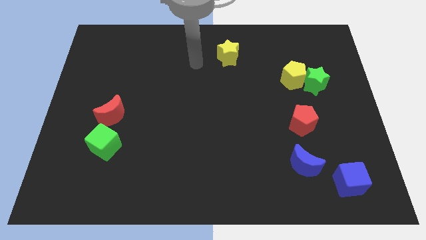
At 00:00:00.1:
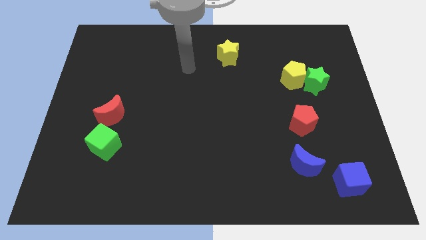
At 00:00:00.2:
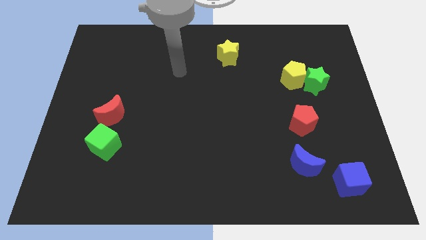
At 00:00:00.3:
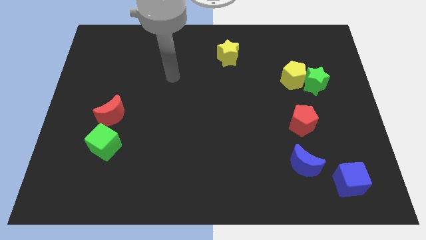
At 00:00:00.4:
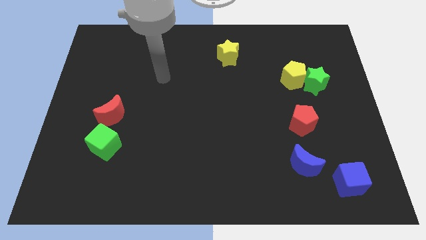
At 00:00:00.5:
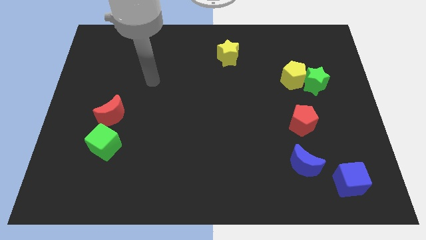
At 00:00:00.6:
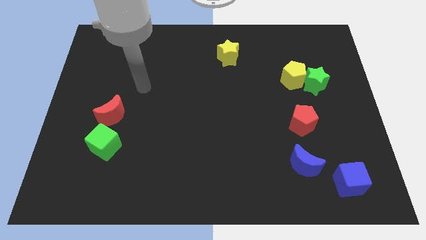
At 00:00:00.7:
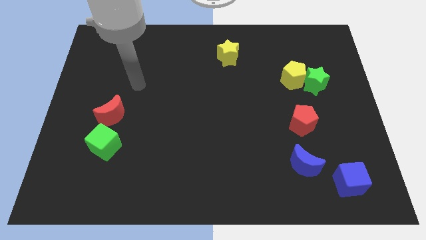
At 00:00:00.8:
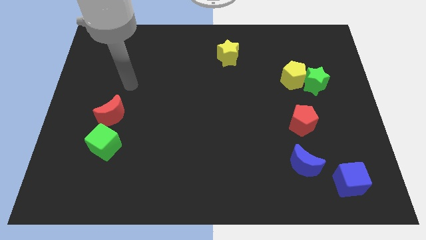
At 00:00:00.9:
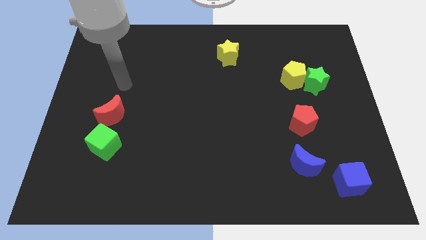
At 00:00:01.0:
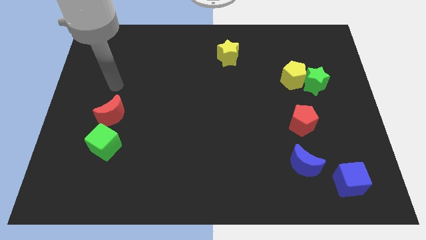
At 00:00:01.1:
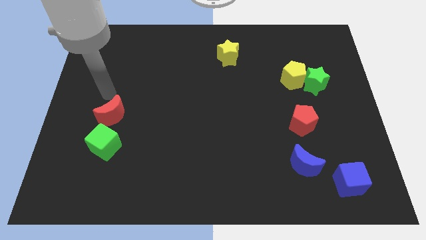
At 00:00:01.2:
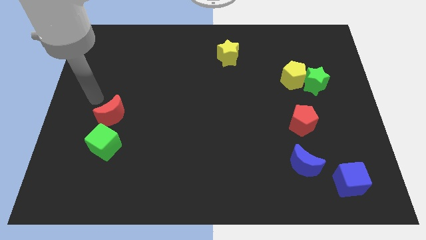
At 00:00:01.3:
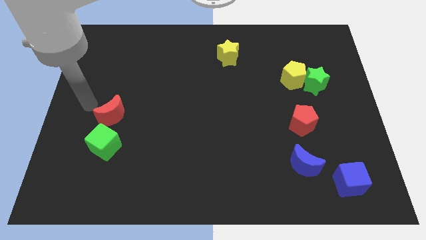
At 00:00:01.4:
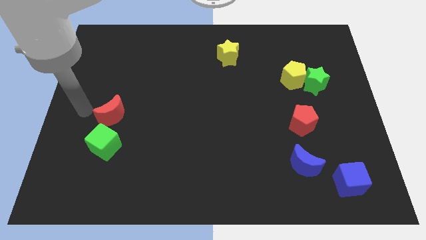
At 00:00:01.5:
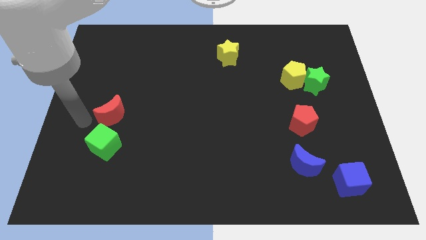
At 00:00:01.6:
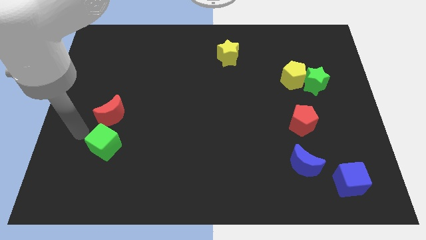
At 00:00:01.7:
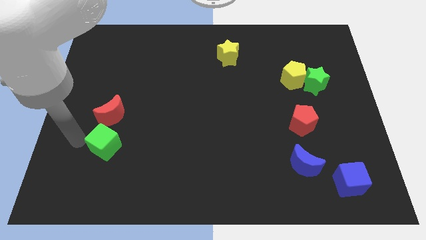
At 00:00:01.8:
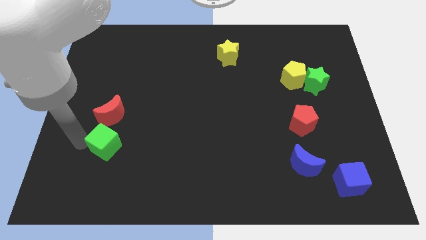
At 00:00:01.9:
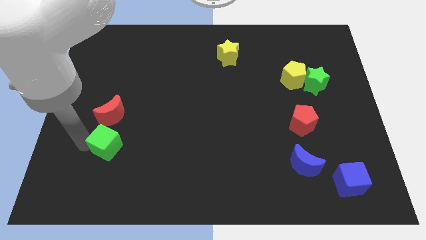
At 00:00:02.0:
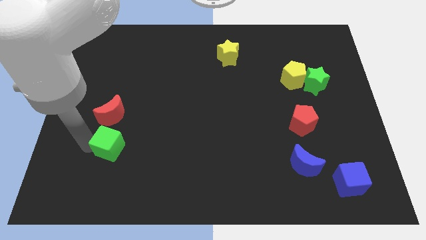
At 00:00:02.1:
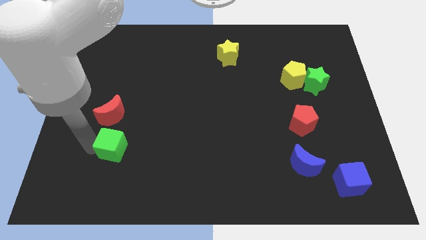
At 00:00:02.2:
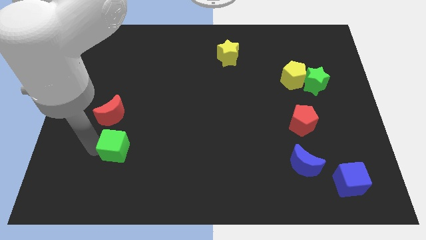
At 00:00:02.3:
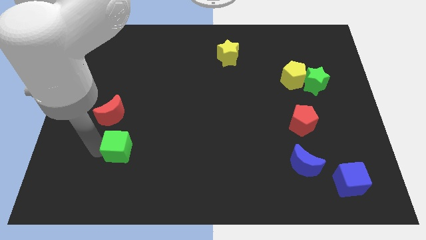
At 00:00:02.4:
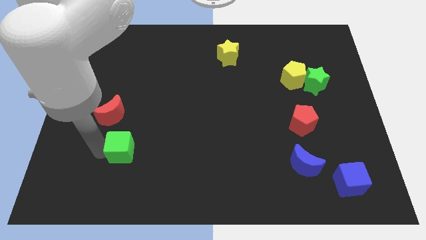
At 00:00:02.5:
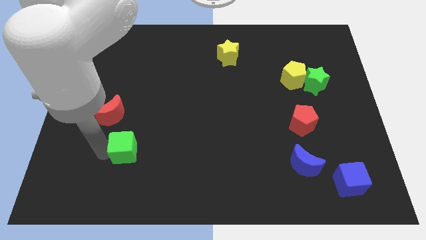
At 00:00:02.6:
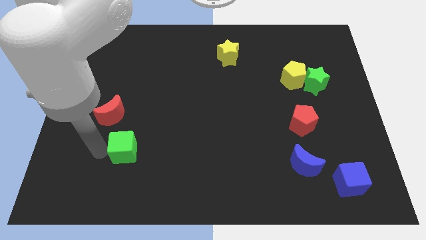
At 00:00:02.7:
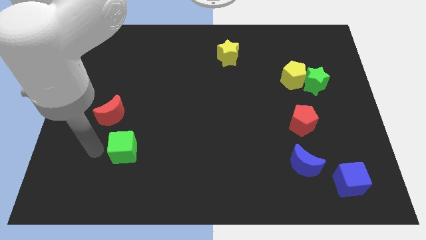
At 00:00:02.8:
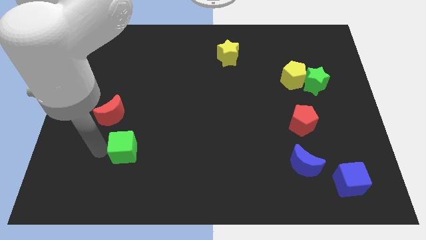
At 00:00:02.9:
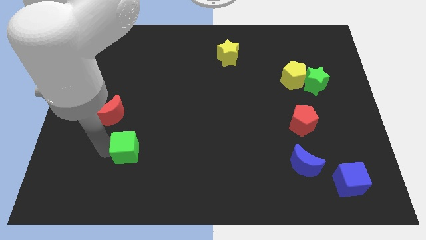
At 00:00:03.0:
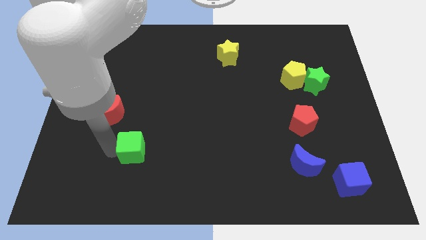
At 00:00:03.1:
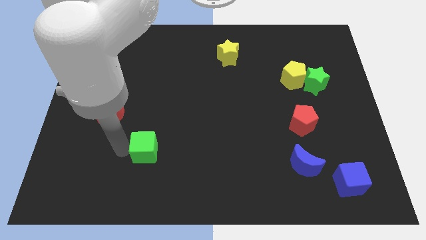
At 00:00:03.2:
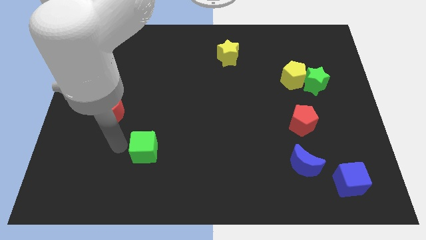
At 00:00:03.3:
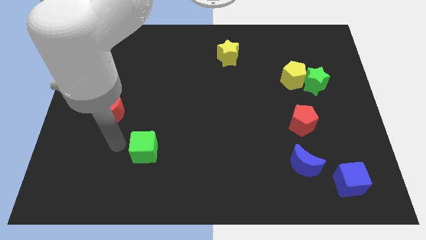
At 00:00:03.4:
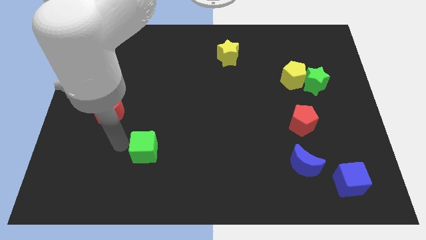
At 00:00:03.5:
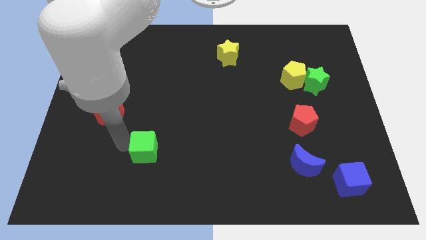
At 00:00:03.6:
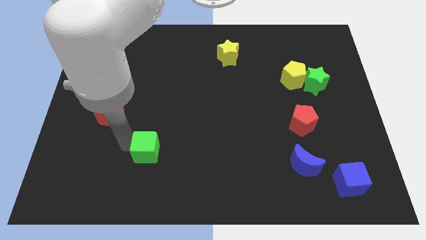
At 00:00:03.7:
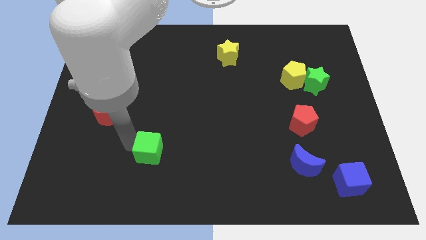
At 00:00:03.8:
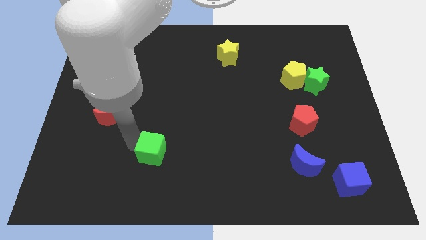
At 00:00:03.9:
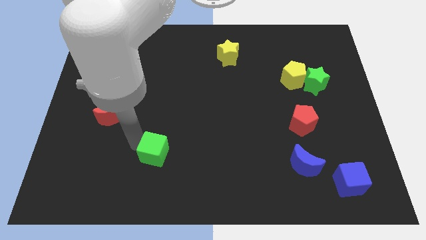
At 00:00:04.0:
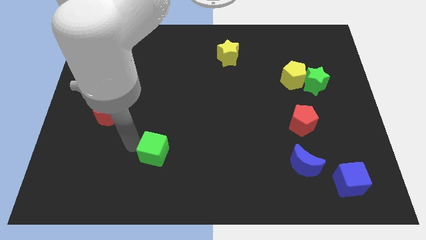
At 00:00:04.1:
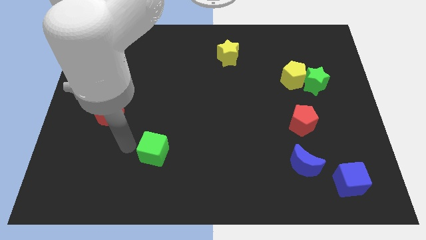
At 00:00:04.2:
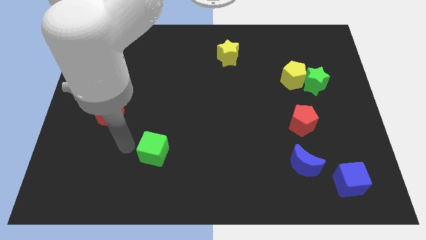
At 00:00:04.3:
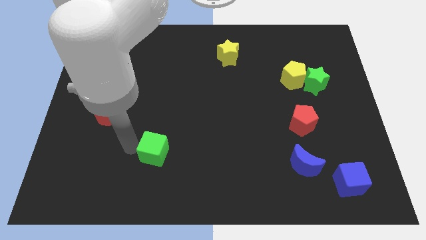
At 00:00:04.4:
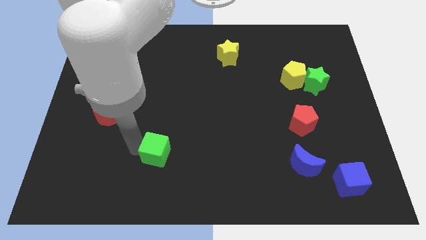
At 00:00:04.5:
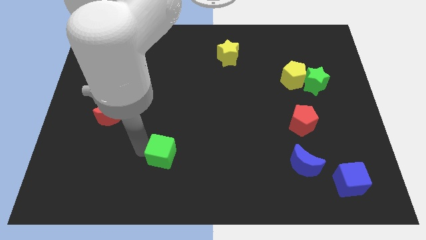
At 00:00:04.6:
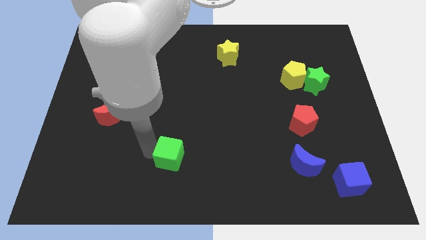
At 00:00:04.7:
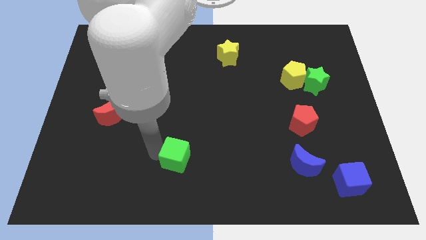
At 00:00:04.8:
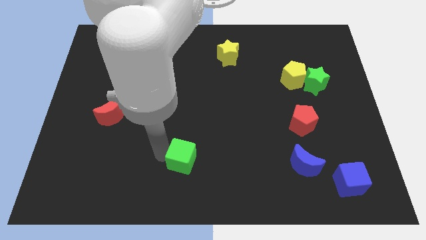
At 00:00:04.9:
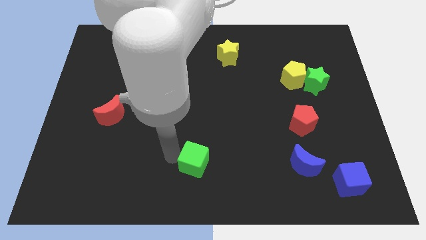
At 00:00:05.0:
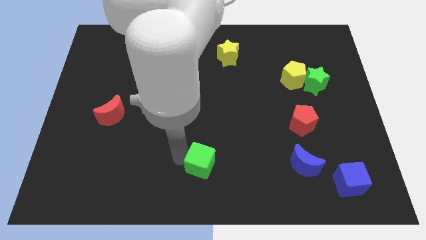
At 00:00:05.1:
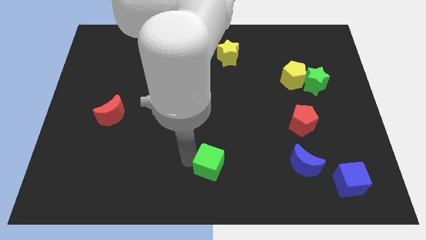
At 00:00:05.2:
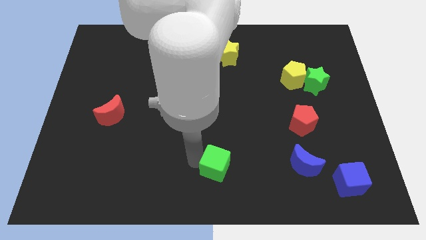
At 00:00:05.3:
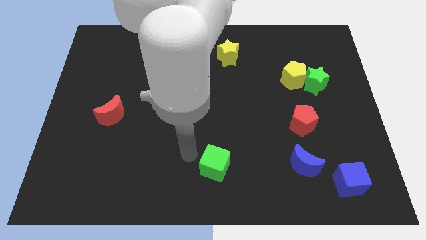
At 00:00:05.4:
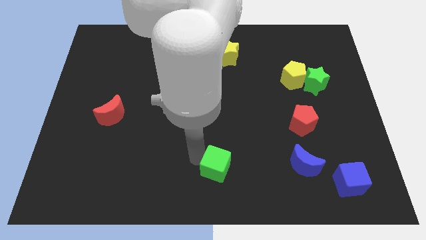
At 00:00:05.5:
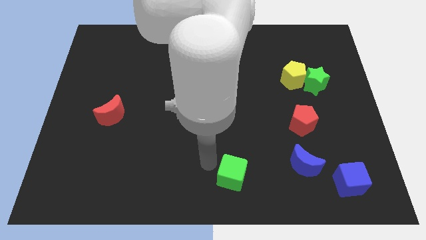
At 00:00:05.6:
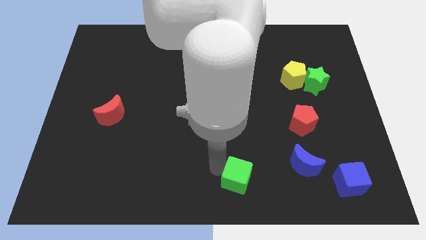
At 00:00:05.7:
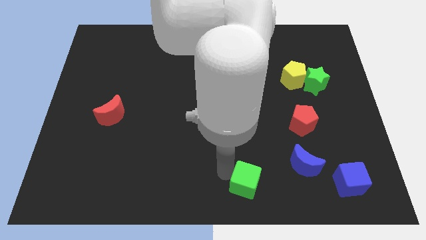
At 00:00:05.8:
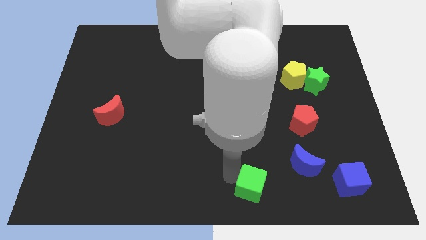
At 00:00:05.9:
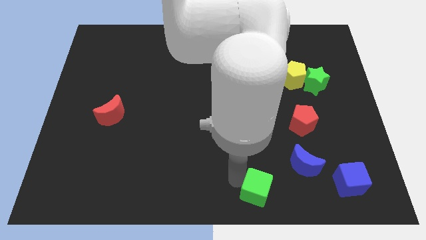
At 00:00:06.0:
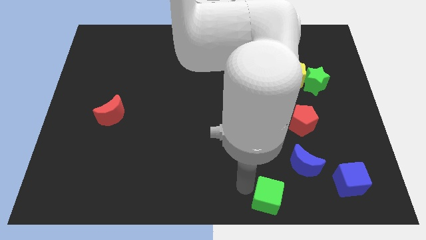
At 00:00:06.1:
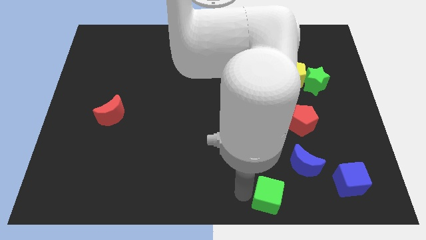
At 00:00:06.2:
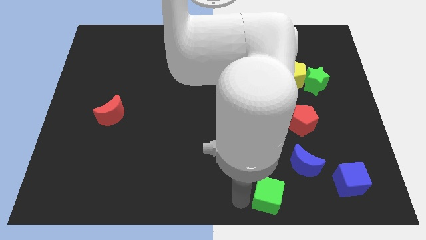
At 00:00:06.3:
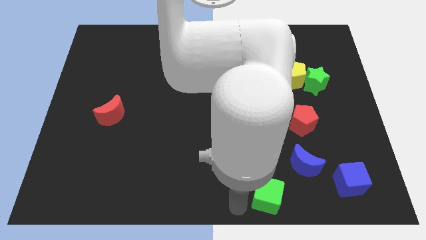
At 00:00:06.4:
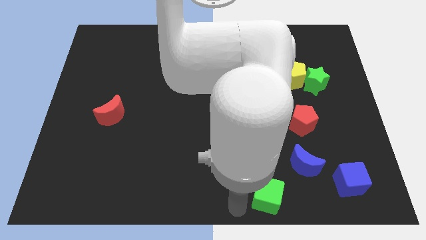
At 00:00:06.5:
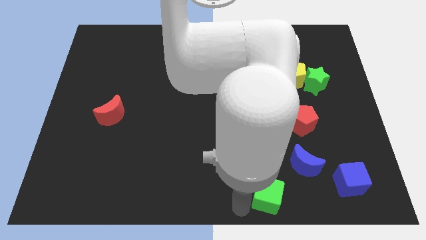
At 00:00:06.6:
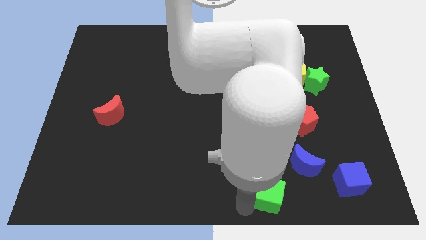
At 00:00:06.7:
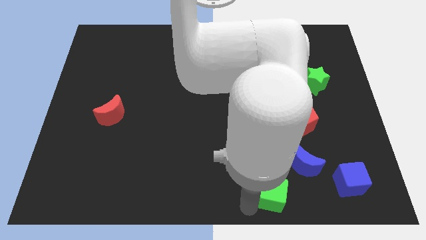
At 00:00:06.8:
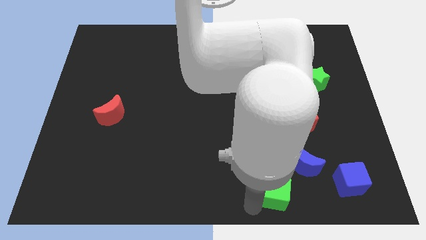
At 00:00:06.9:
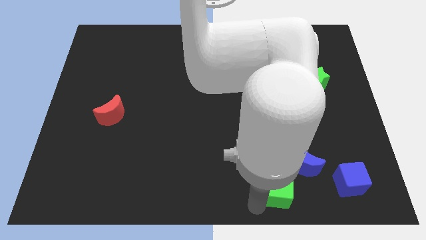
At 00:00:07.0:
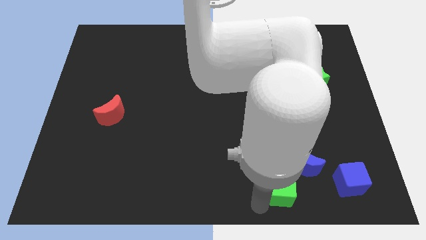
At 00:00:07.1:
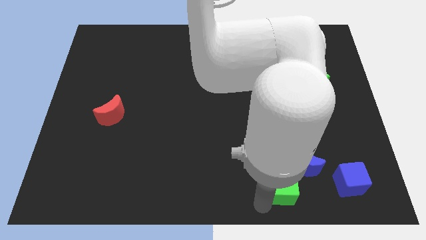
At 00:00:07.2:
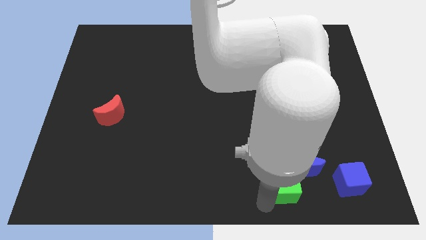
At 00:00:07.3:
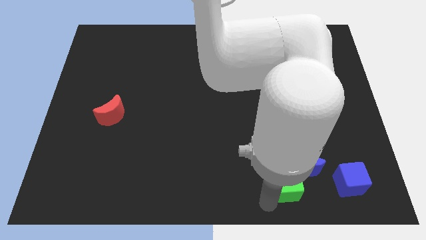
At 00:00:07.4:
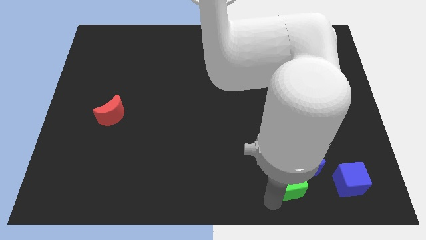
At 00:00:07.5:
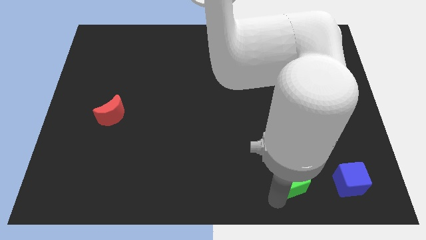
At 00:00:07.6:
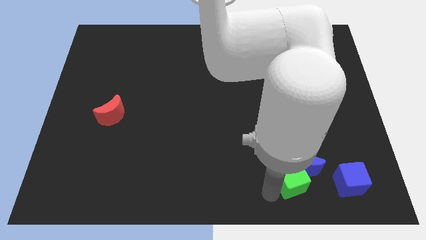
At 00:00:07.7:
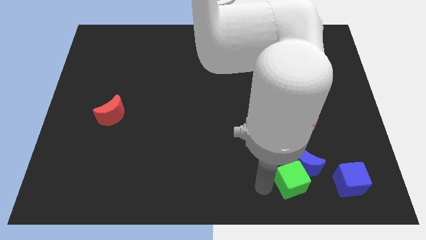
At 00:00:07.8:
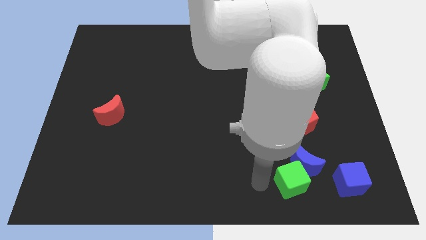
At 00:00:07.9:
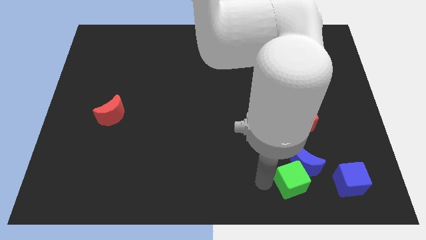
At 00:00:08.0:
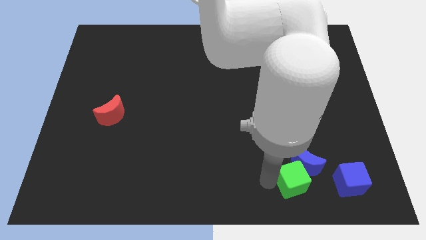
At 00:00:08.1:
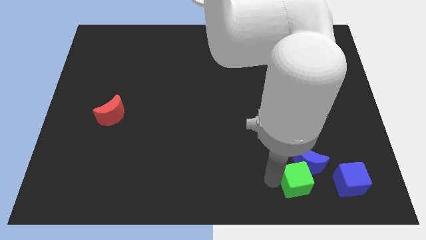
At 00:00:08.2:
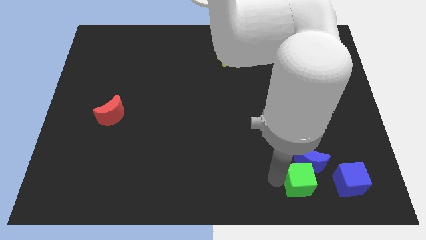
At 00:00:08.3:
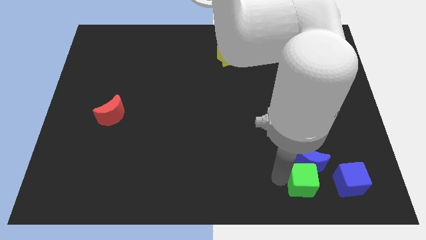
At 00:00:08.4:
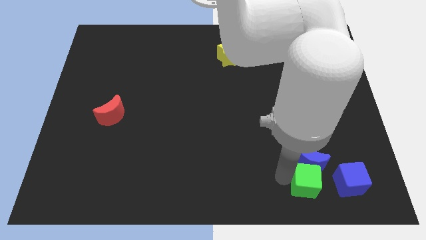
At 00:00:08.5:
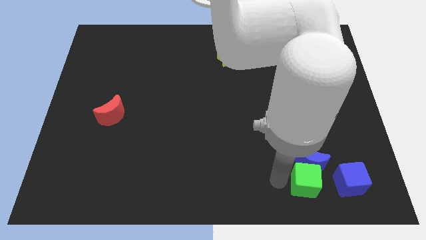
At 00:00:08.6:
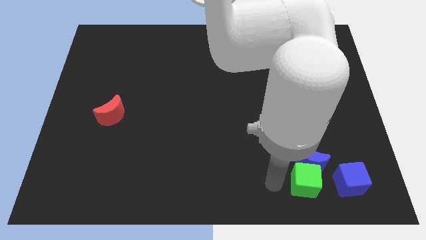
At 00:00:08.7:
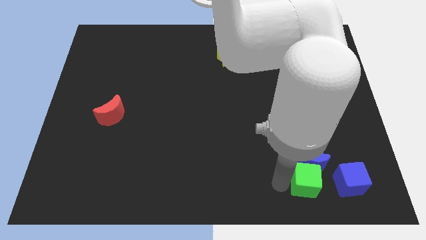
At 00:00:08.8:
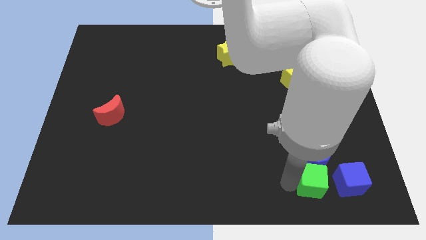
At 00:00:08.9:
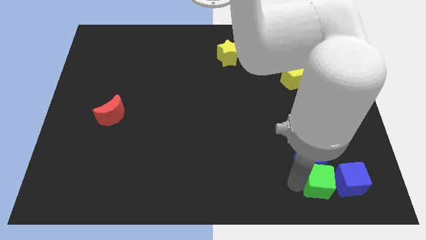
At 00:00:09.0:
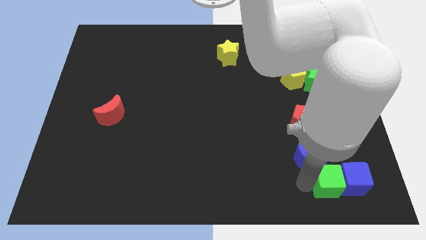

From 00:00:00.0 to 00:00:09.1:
put the green cube towards the blue cube
